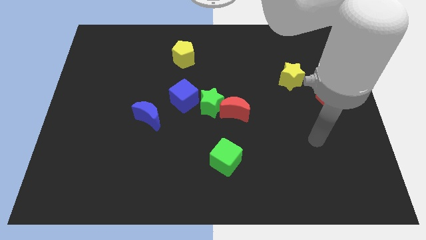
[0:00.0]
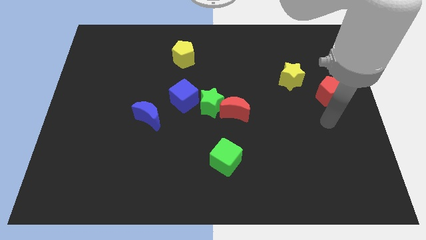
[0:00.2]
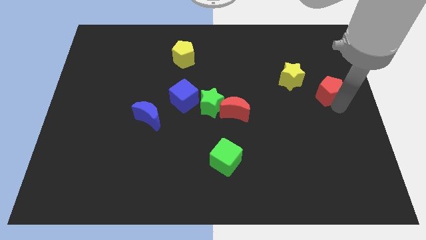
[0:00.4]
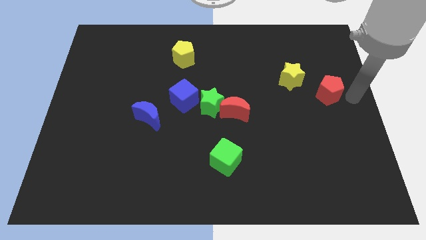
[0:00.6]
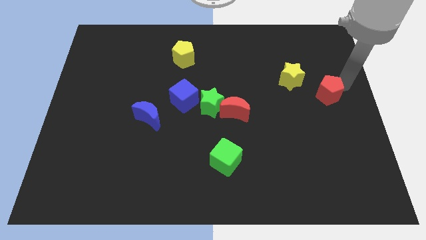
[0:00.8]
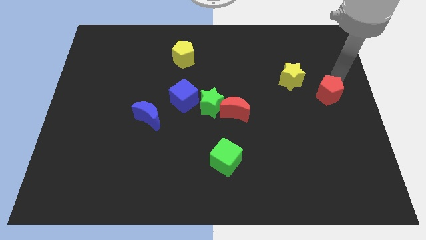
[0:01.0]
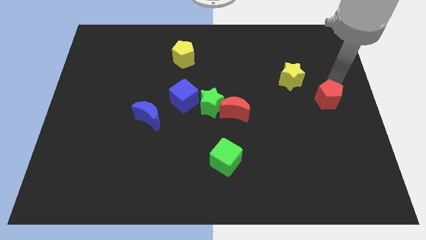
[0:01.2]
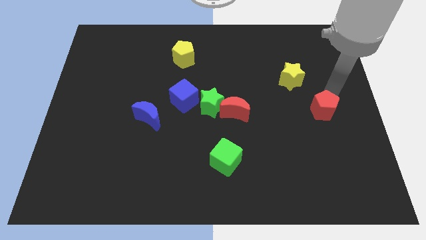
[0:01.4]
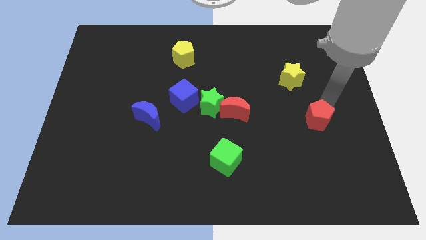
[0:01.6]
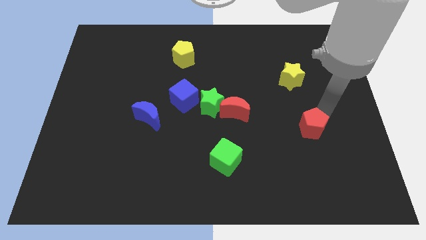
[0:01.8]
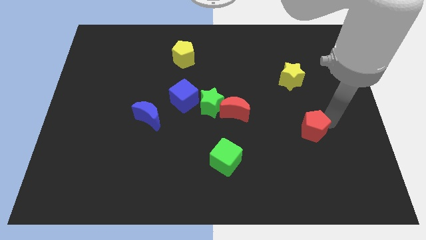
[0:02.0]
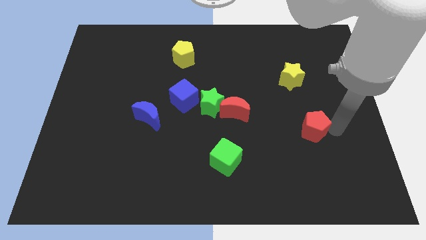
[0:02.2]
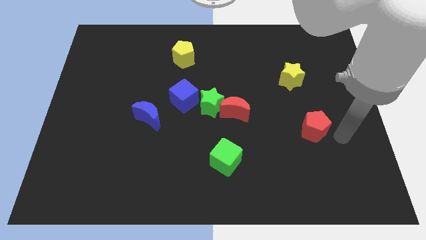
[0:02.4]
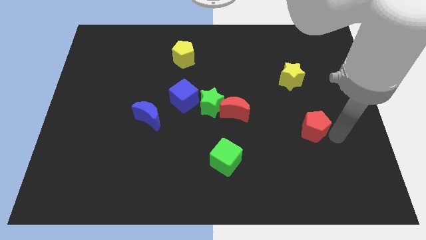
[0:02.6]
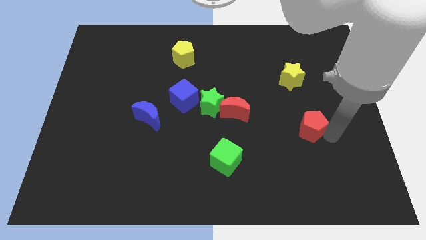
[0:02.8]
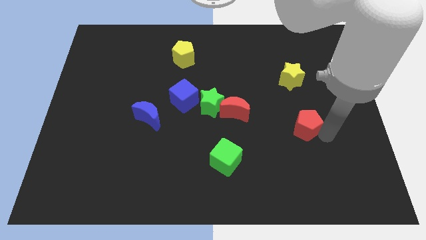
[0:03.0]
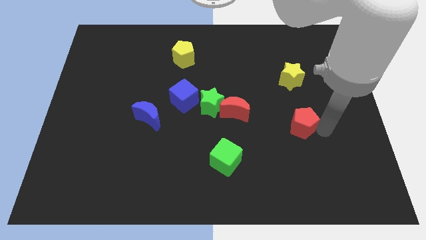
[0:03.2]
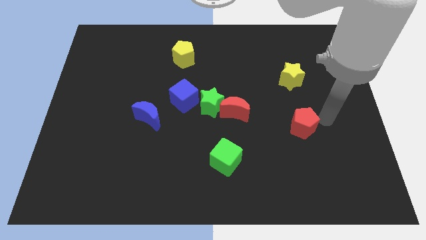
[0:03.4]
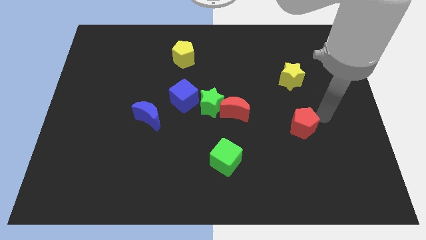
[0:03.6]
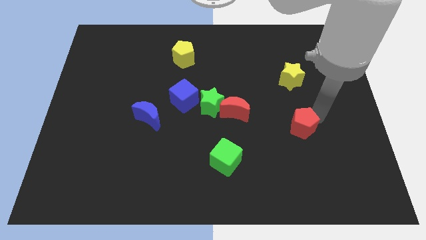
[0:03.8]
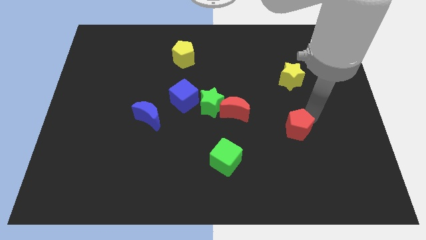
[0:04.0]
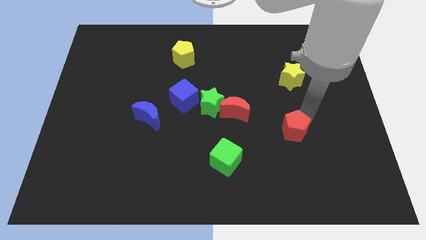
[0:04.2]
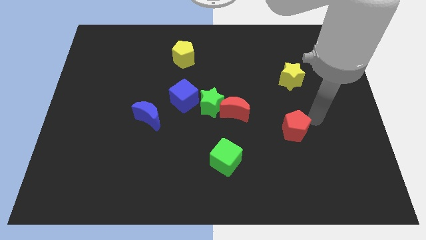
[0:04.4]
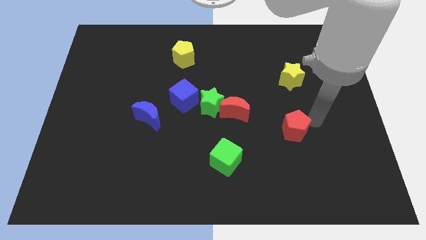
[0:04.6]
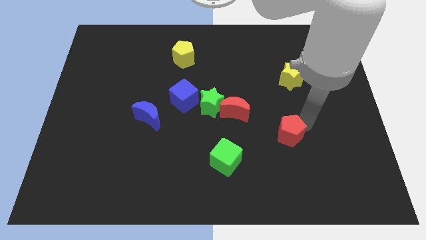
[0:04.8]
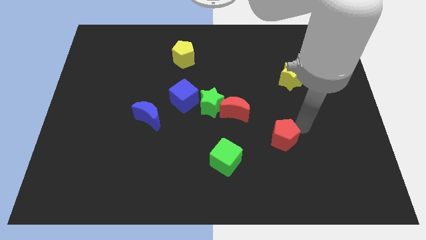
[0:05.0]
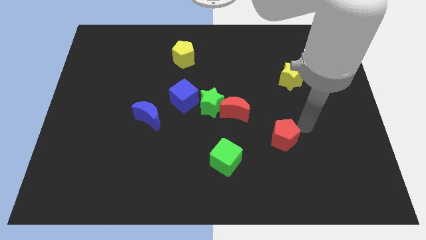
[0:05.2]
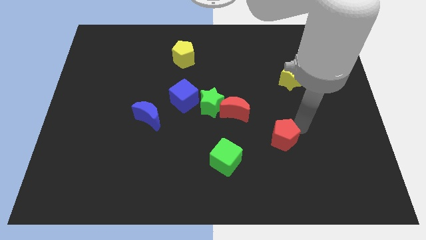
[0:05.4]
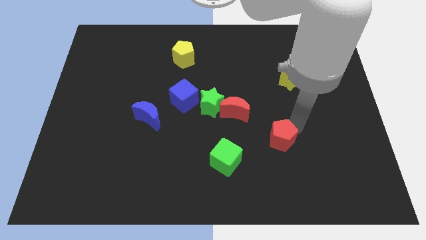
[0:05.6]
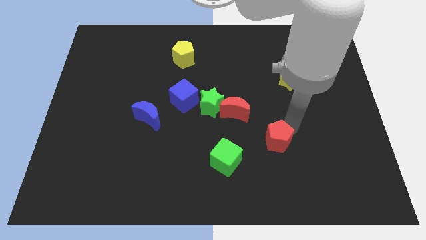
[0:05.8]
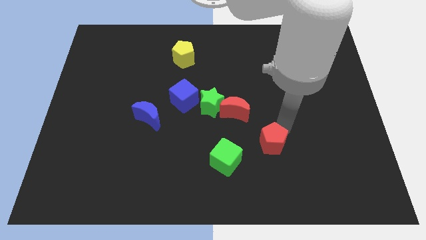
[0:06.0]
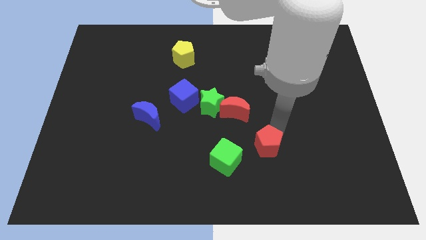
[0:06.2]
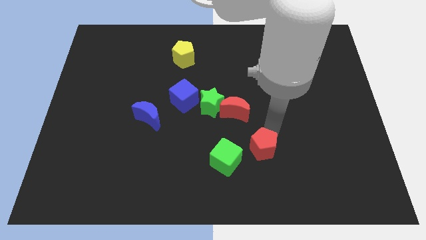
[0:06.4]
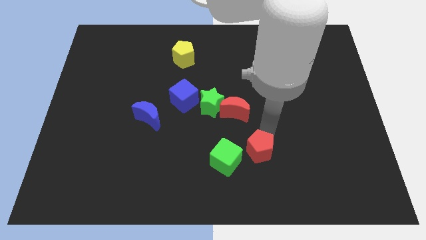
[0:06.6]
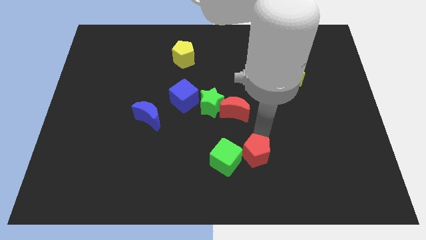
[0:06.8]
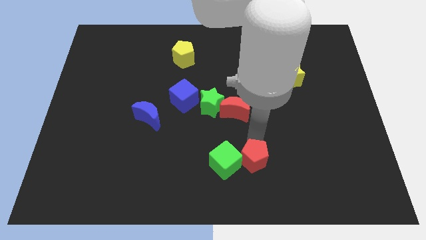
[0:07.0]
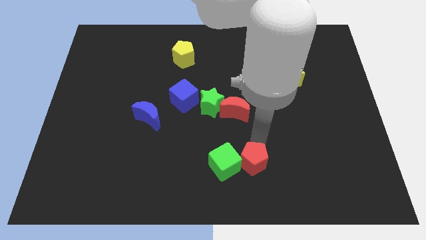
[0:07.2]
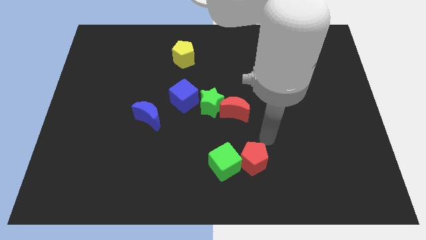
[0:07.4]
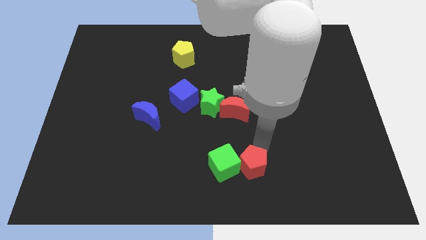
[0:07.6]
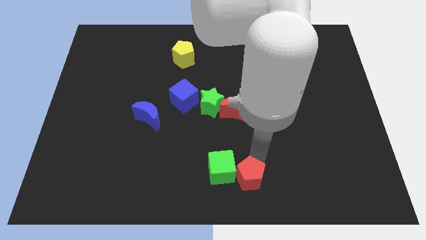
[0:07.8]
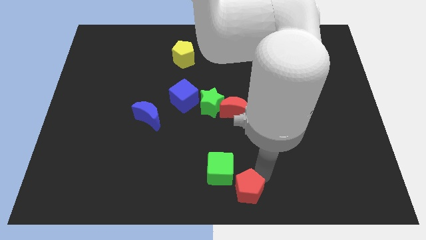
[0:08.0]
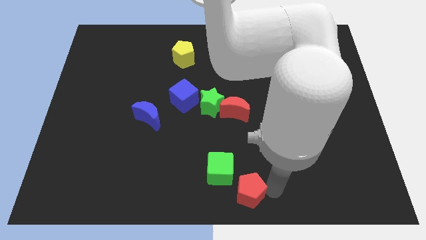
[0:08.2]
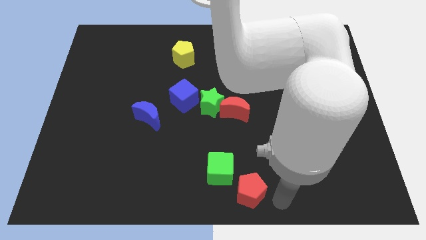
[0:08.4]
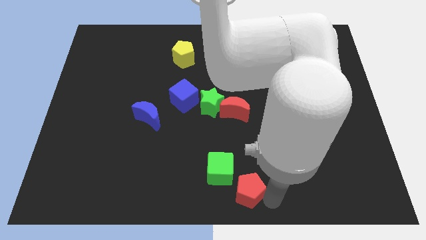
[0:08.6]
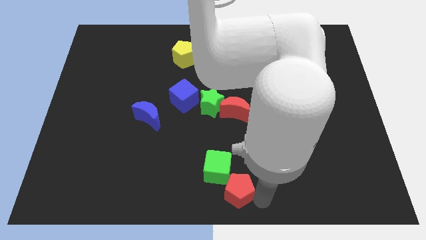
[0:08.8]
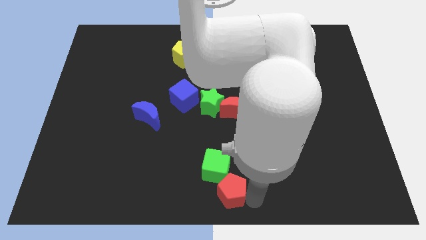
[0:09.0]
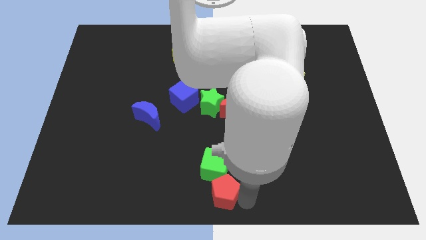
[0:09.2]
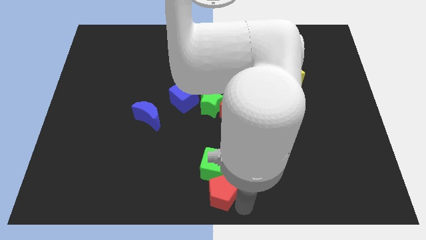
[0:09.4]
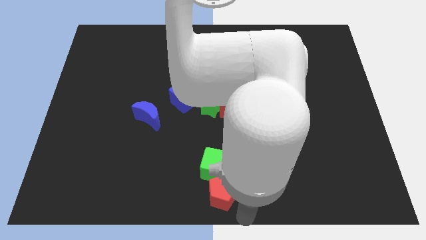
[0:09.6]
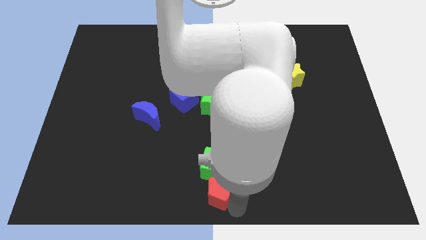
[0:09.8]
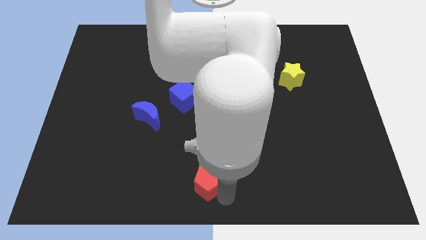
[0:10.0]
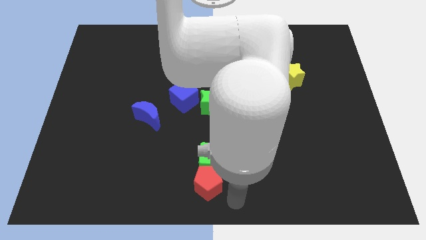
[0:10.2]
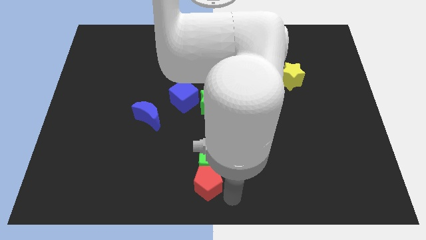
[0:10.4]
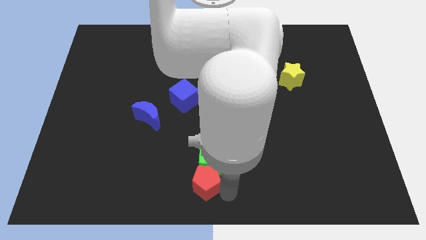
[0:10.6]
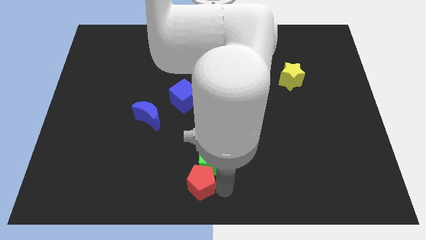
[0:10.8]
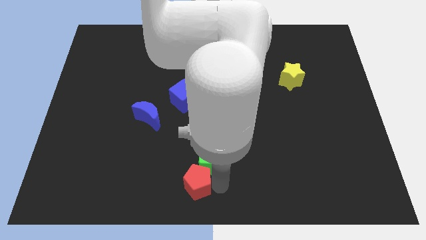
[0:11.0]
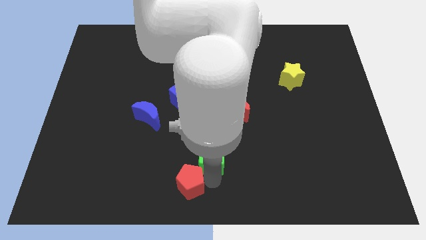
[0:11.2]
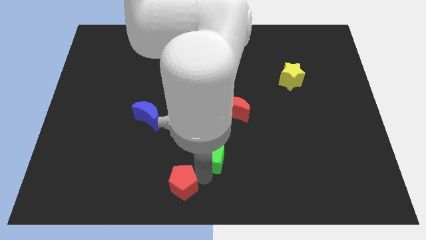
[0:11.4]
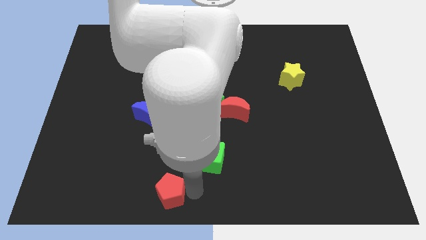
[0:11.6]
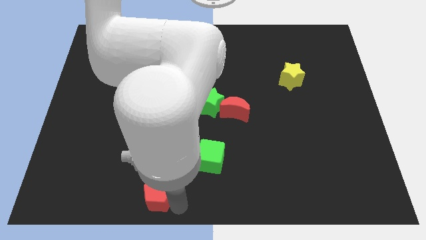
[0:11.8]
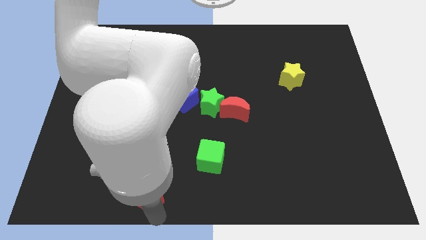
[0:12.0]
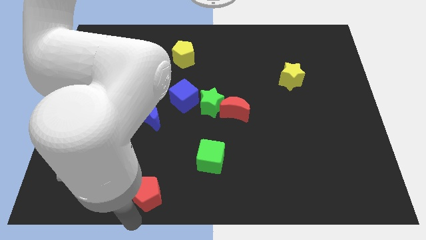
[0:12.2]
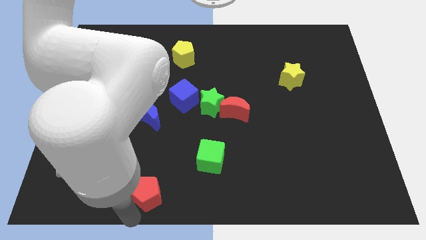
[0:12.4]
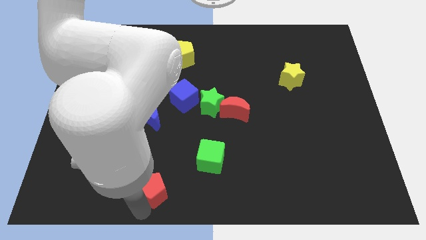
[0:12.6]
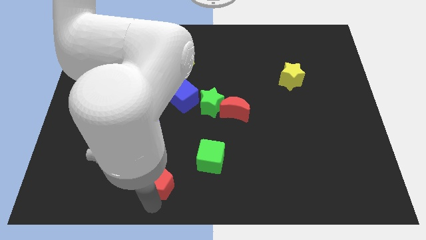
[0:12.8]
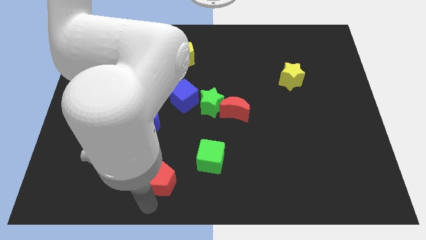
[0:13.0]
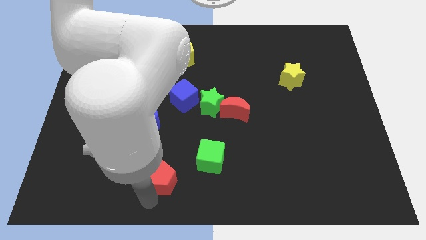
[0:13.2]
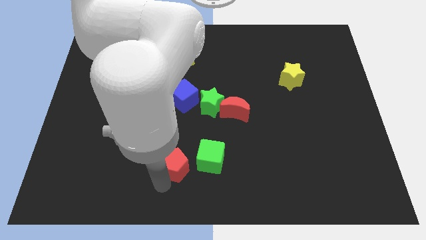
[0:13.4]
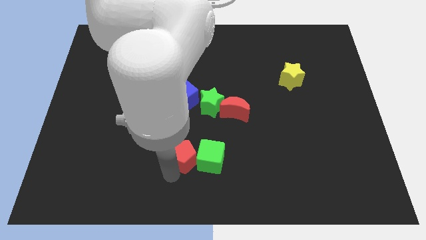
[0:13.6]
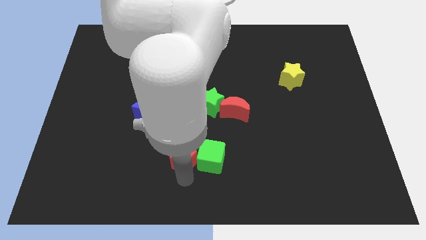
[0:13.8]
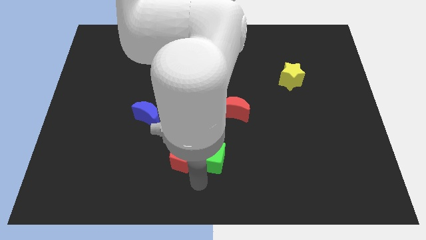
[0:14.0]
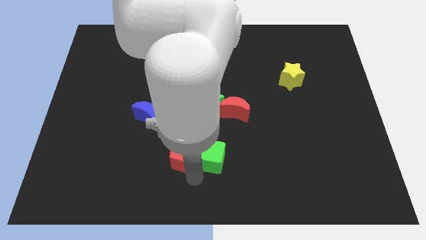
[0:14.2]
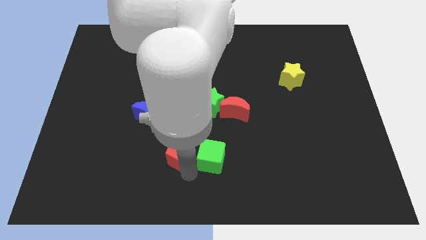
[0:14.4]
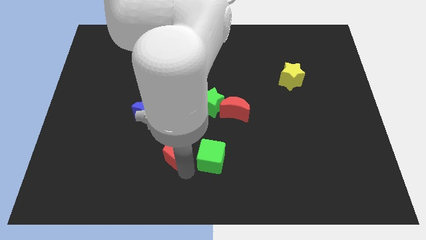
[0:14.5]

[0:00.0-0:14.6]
move the red pentagon diagonally down and to the right of the blue moon
